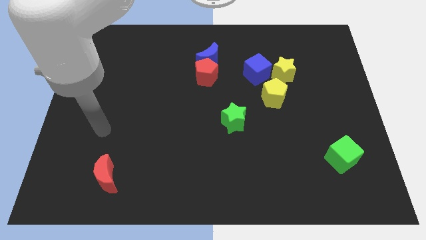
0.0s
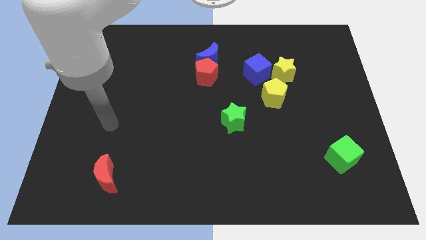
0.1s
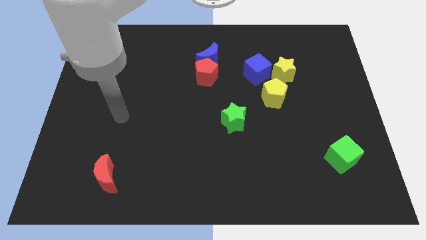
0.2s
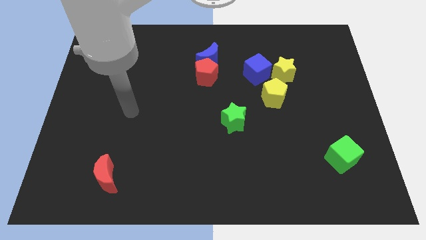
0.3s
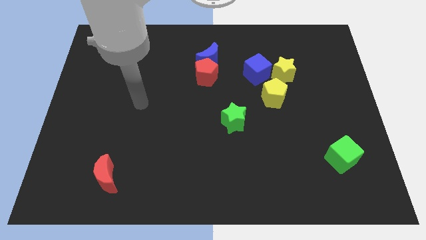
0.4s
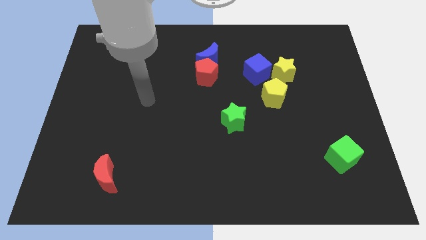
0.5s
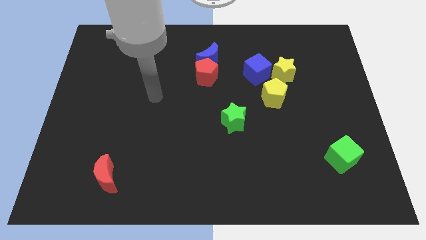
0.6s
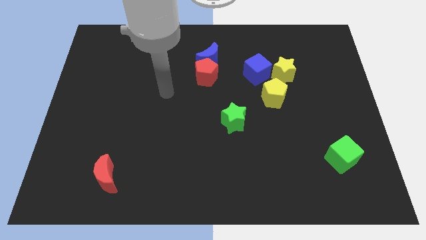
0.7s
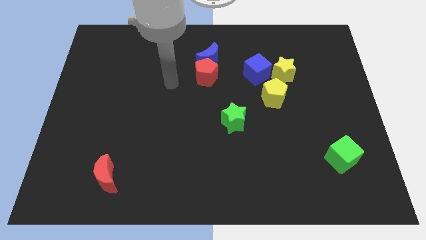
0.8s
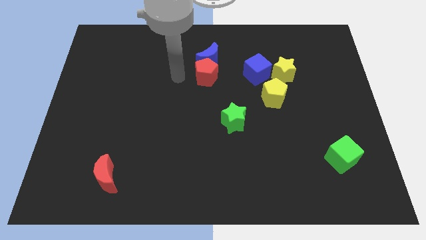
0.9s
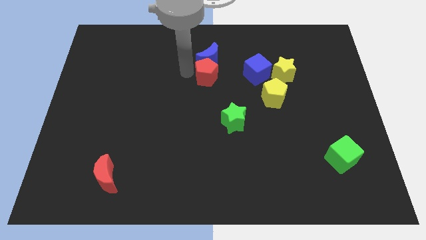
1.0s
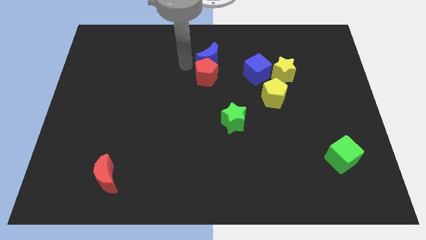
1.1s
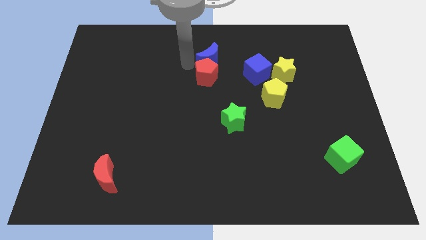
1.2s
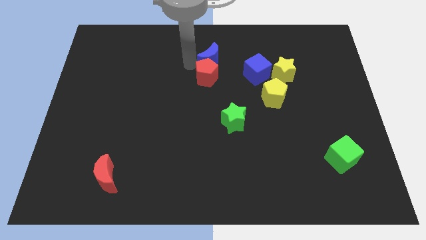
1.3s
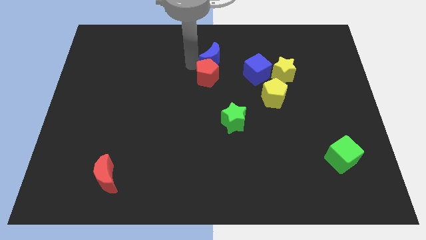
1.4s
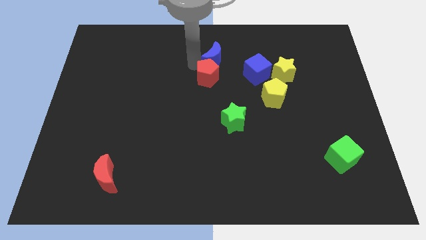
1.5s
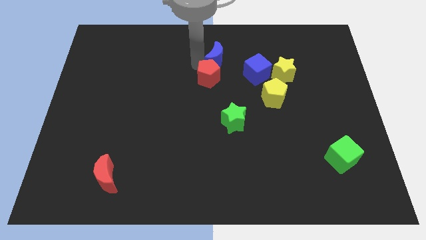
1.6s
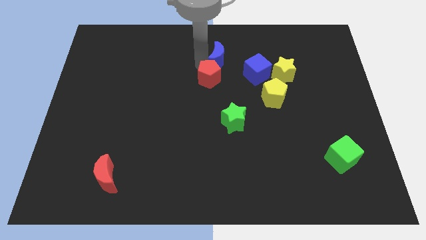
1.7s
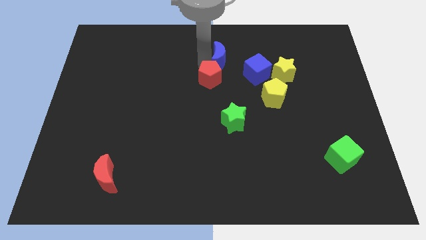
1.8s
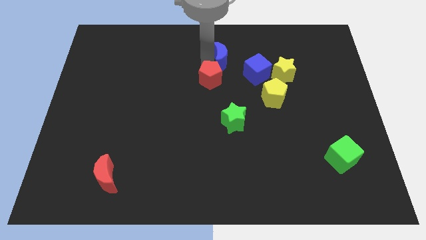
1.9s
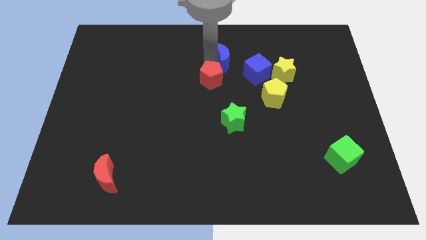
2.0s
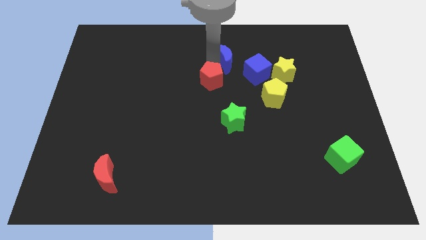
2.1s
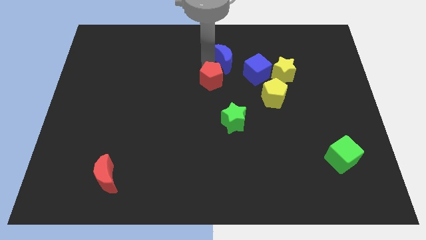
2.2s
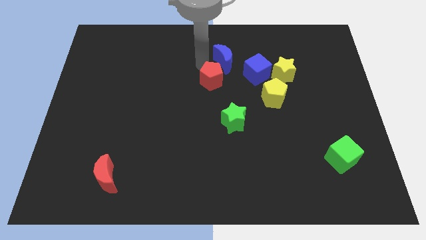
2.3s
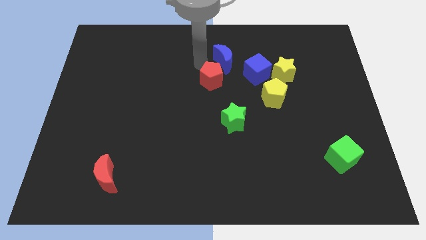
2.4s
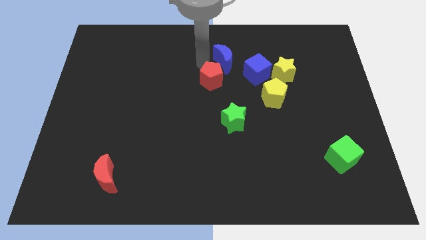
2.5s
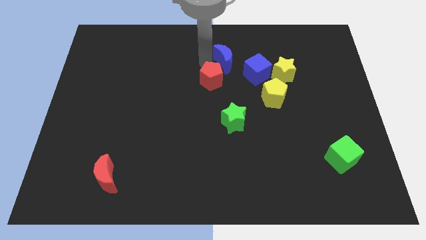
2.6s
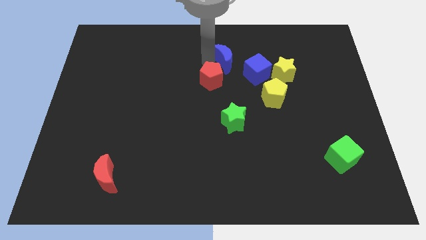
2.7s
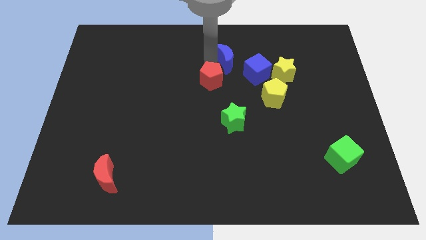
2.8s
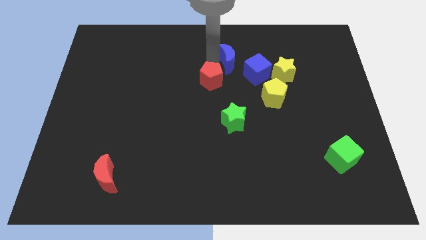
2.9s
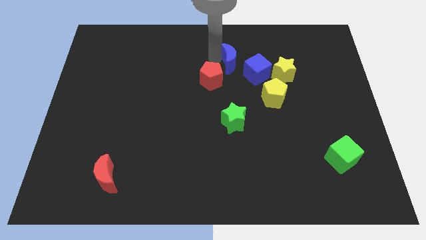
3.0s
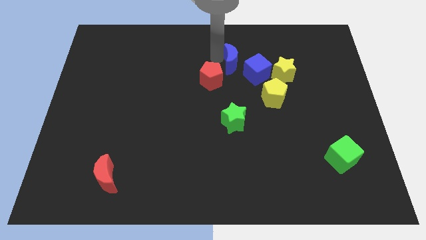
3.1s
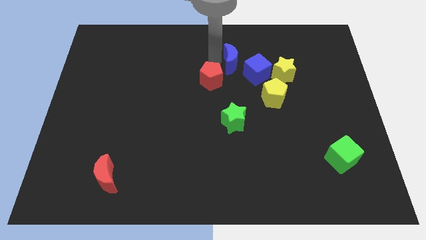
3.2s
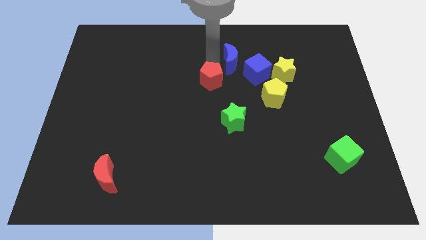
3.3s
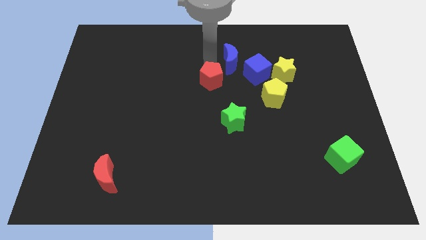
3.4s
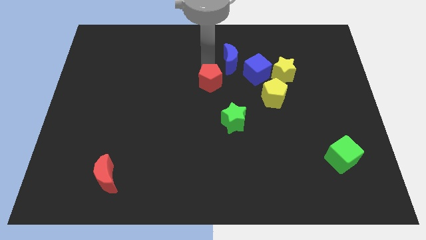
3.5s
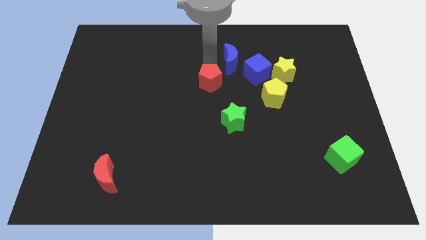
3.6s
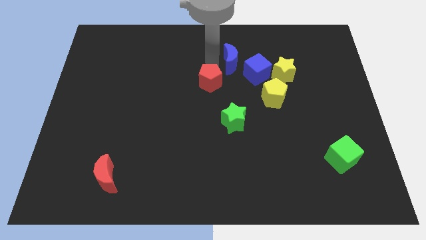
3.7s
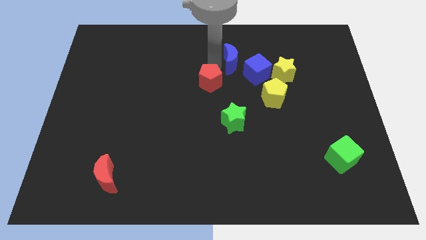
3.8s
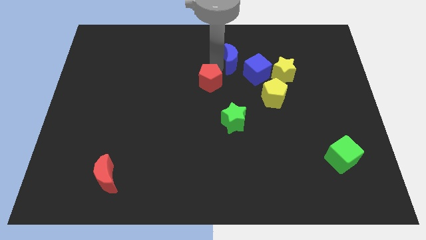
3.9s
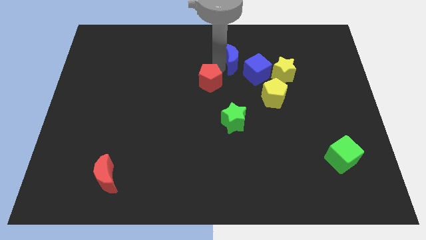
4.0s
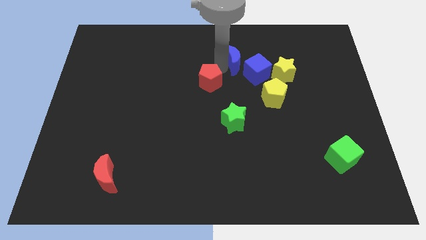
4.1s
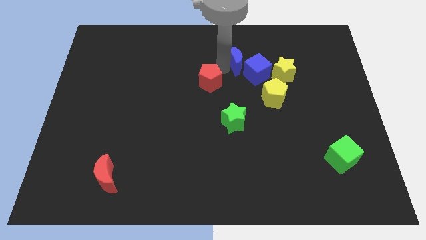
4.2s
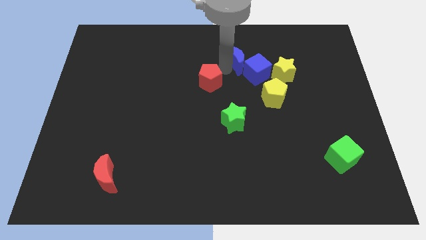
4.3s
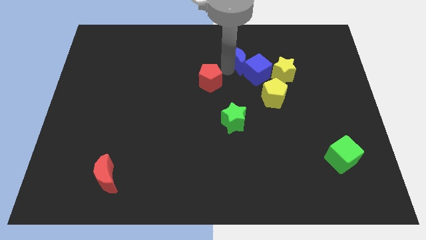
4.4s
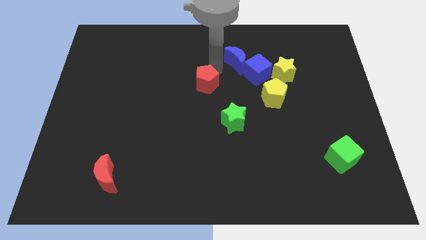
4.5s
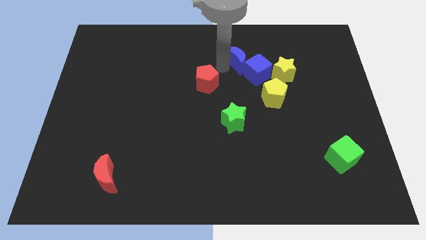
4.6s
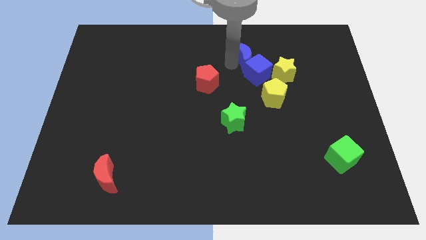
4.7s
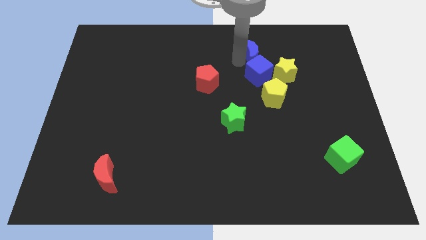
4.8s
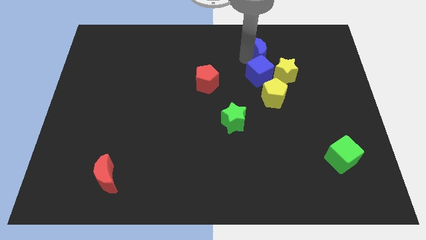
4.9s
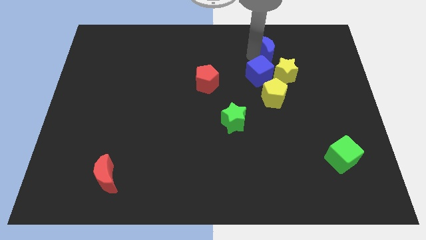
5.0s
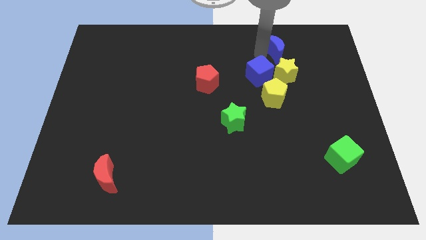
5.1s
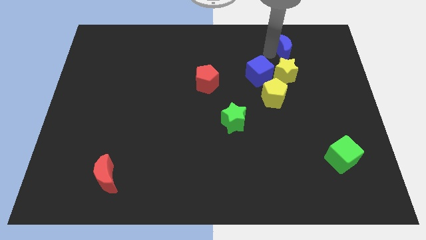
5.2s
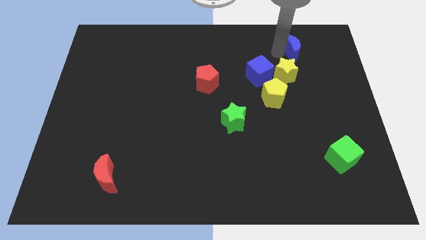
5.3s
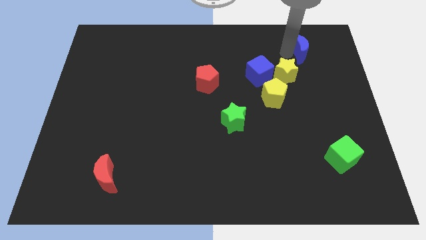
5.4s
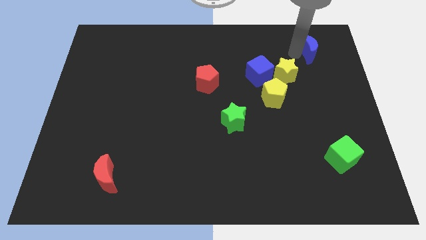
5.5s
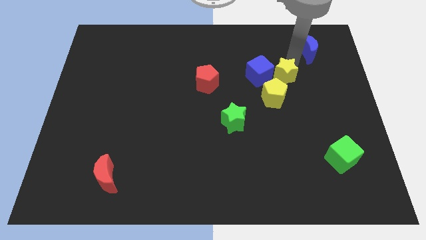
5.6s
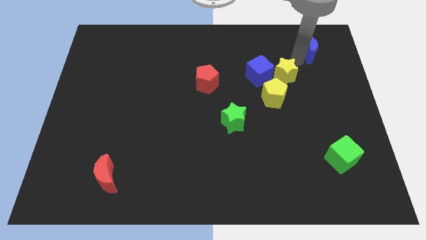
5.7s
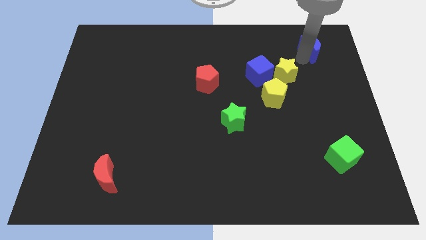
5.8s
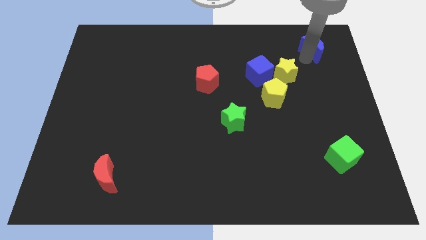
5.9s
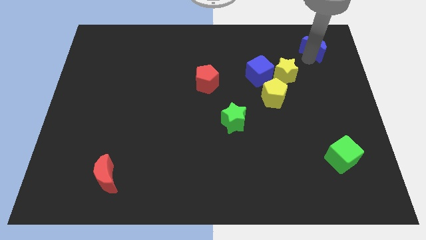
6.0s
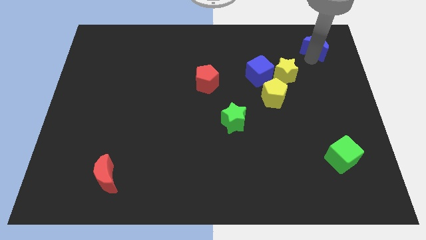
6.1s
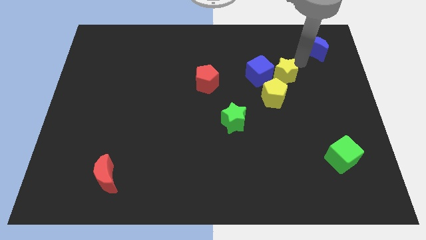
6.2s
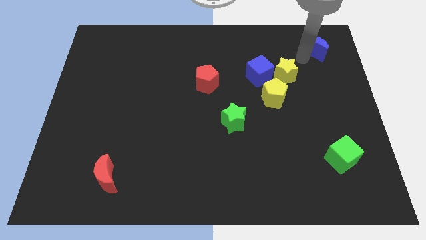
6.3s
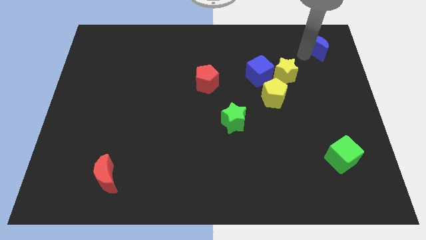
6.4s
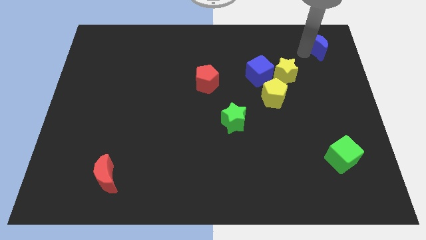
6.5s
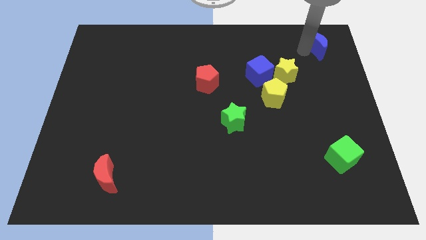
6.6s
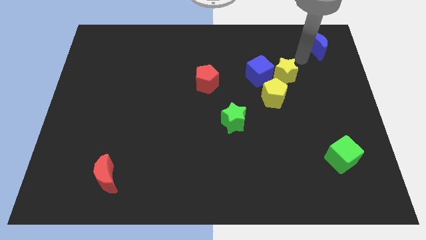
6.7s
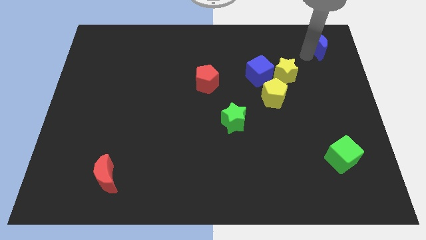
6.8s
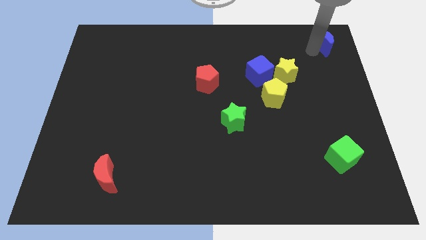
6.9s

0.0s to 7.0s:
put the blue moon to the top right corner

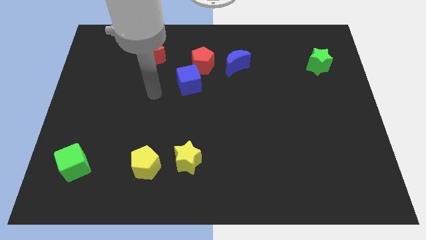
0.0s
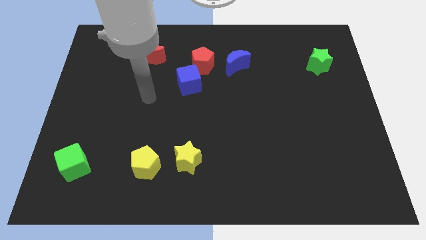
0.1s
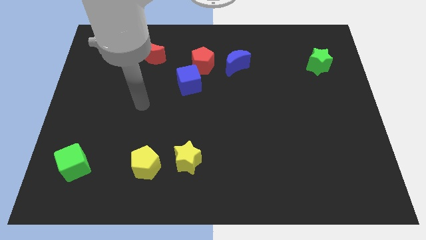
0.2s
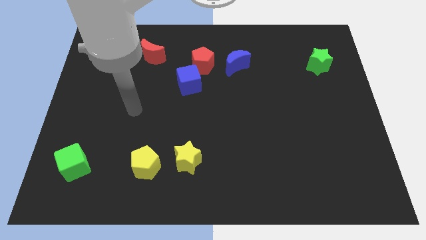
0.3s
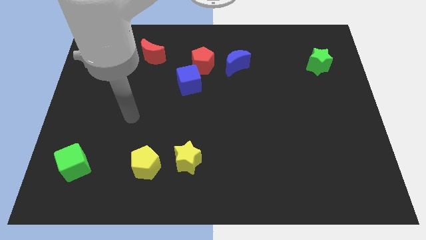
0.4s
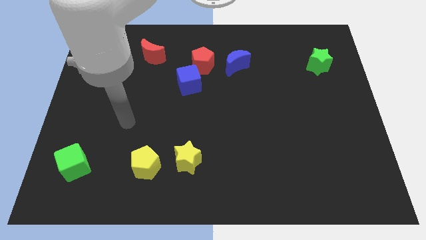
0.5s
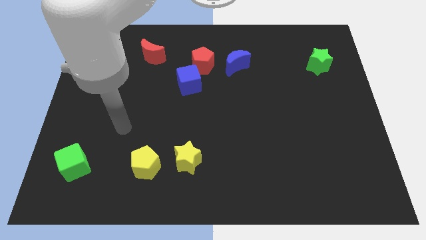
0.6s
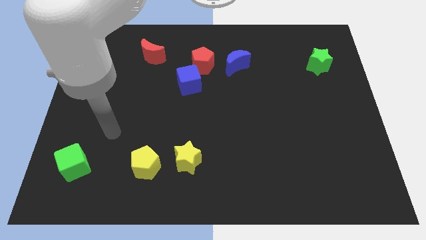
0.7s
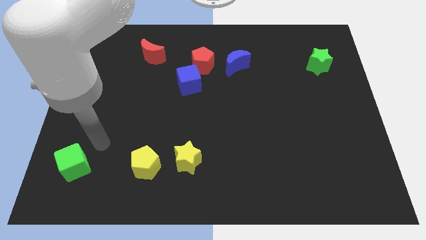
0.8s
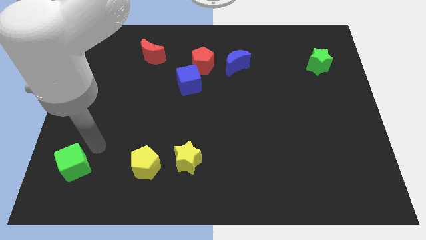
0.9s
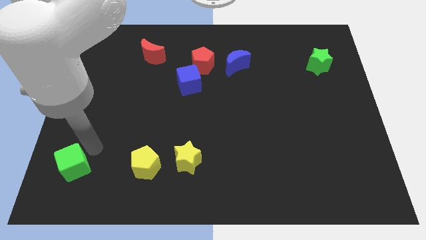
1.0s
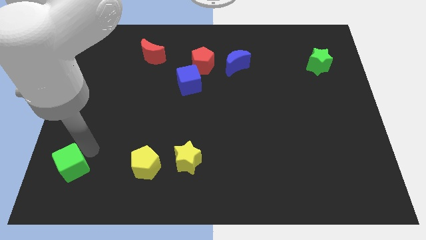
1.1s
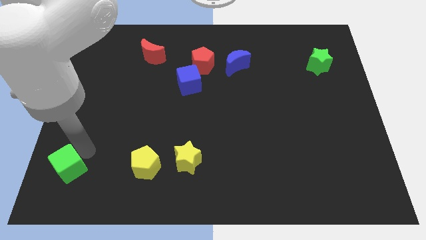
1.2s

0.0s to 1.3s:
push the green cube to the bottom left corner

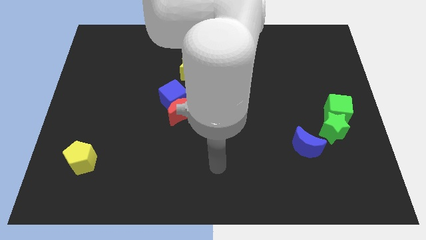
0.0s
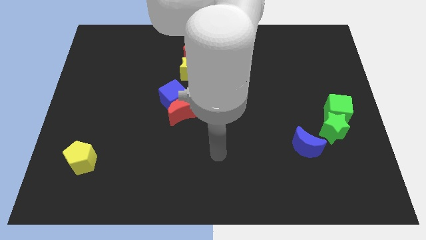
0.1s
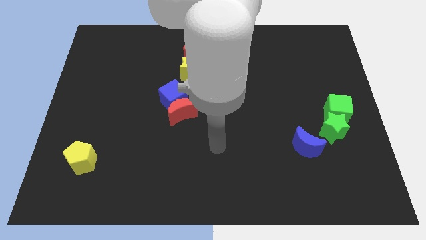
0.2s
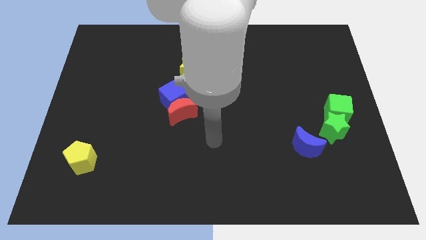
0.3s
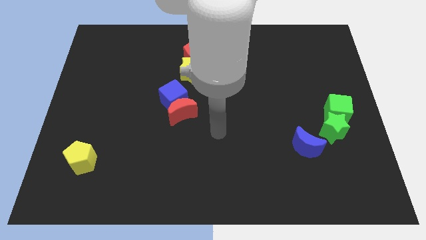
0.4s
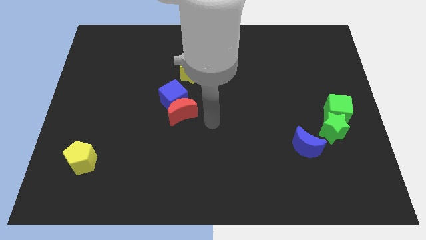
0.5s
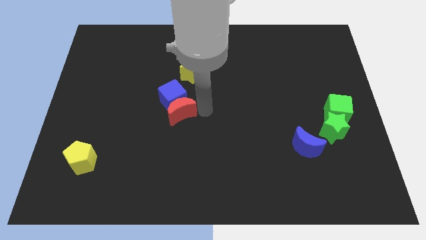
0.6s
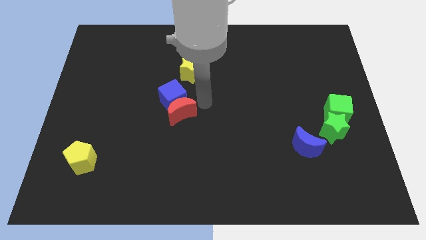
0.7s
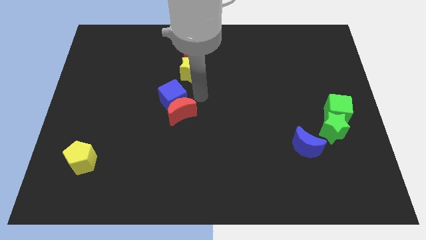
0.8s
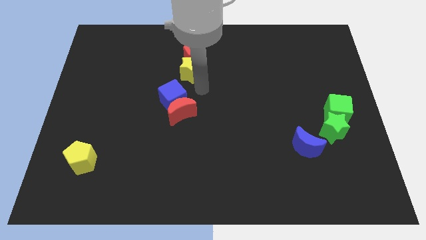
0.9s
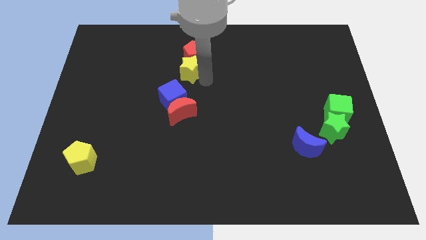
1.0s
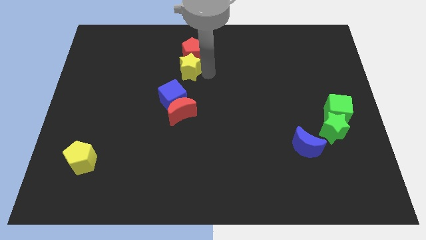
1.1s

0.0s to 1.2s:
push the red pentagon to the top side
